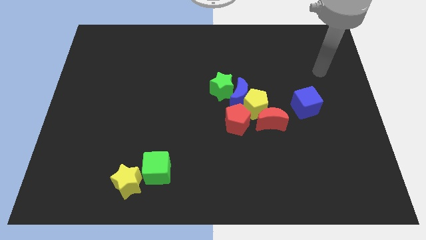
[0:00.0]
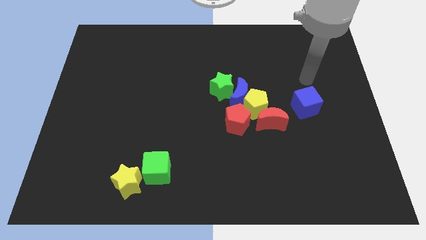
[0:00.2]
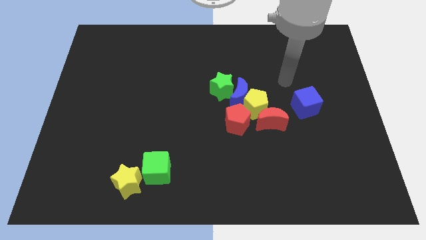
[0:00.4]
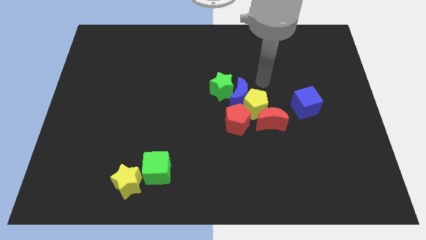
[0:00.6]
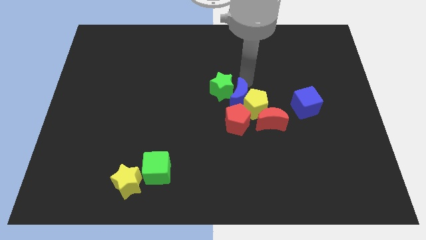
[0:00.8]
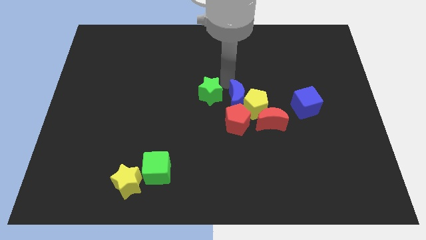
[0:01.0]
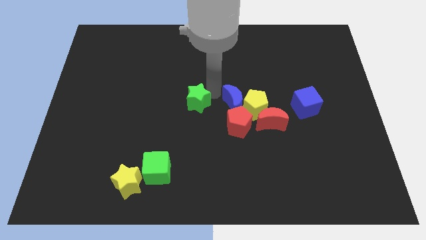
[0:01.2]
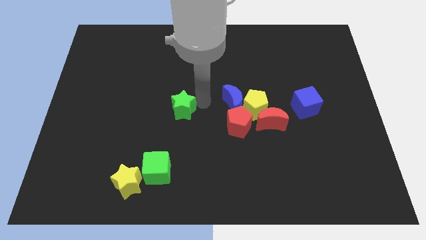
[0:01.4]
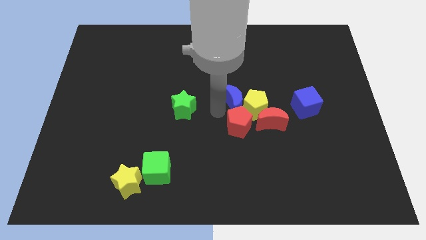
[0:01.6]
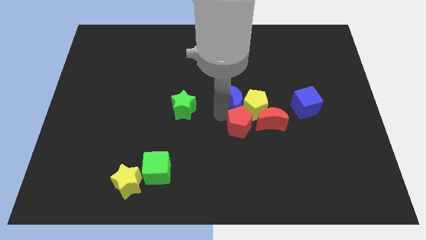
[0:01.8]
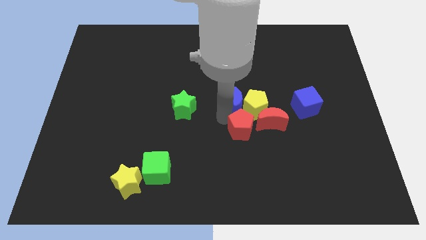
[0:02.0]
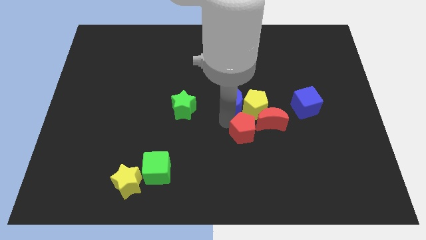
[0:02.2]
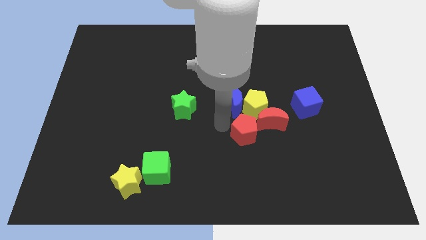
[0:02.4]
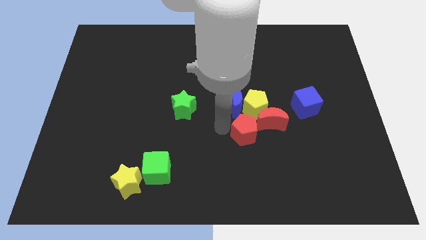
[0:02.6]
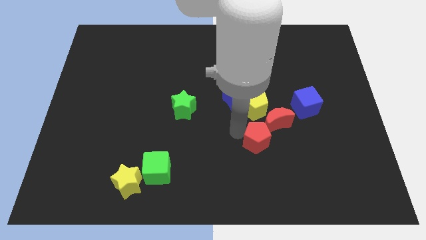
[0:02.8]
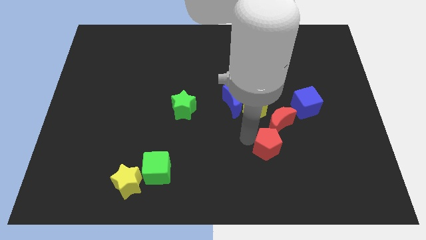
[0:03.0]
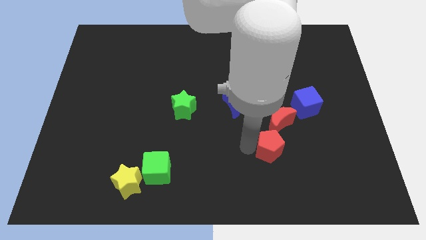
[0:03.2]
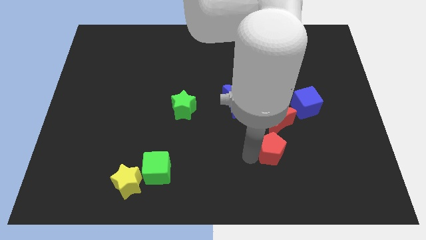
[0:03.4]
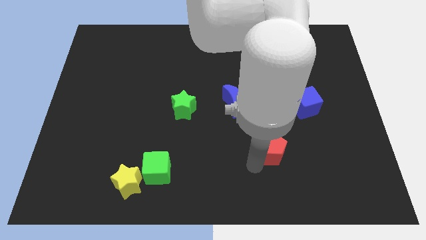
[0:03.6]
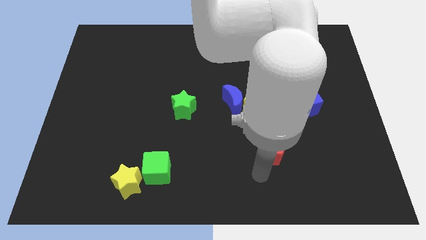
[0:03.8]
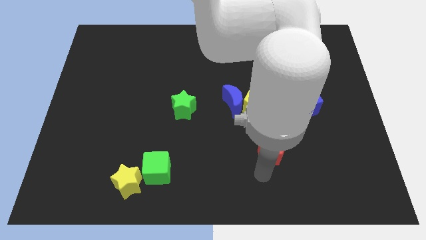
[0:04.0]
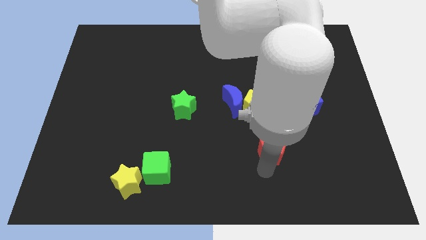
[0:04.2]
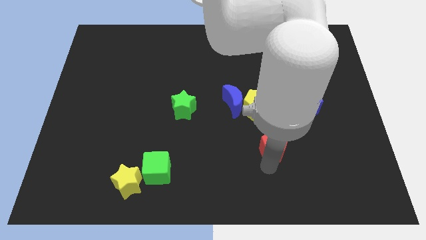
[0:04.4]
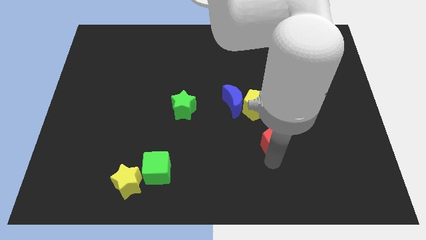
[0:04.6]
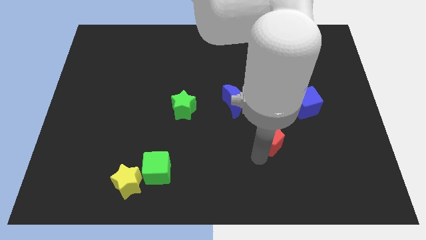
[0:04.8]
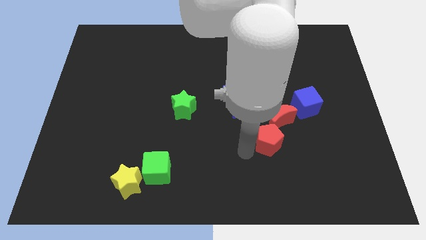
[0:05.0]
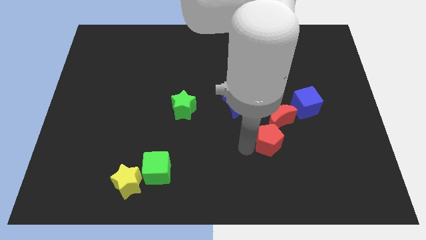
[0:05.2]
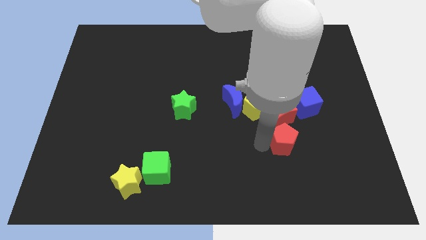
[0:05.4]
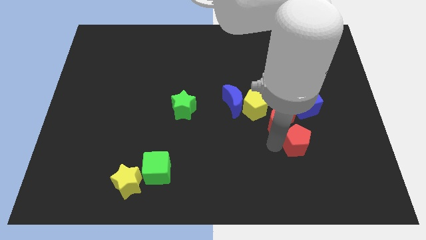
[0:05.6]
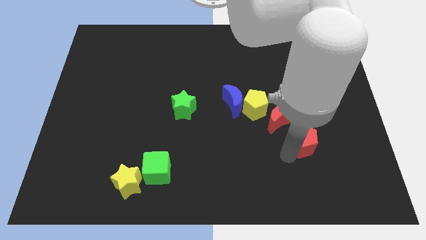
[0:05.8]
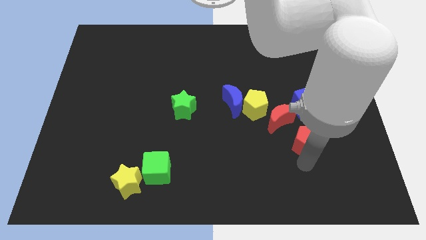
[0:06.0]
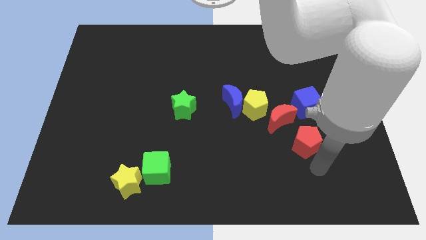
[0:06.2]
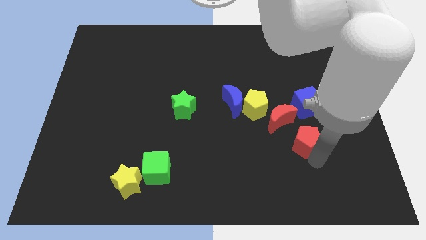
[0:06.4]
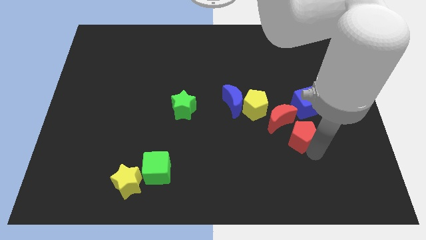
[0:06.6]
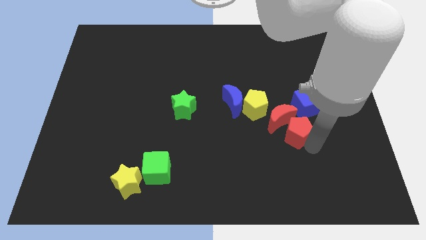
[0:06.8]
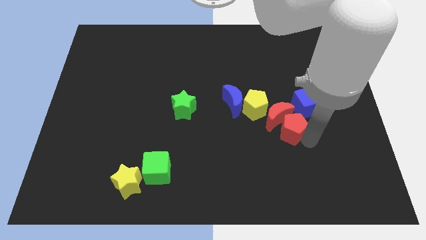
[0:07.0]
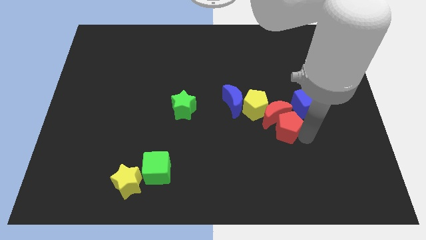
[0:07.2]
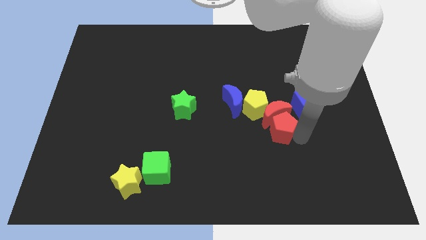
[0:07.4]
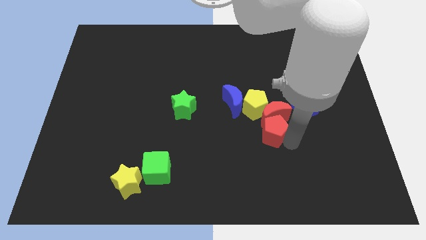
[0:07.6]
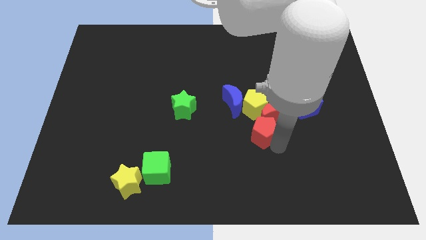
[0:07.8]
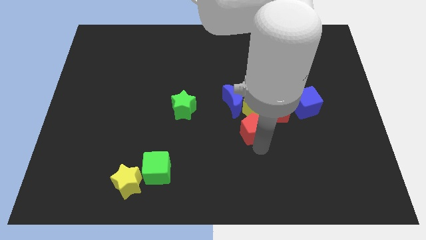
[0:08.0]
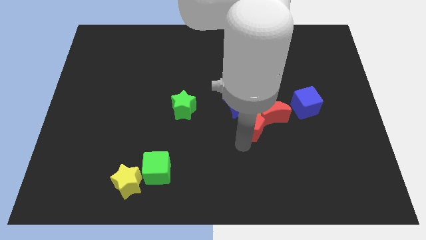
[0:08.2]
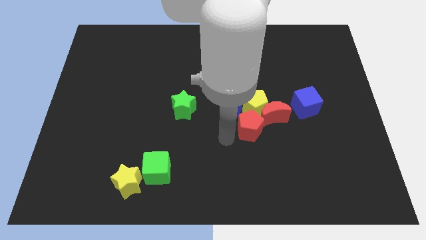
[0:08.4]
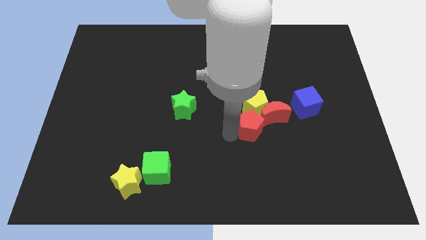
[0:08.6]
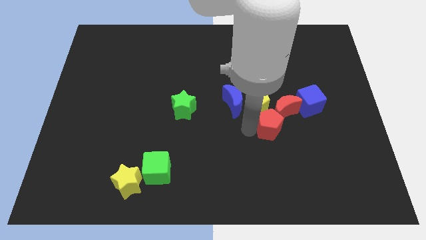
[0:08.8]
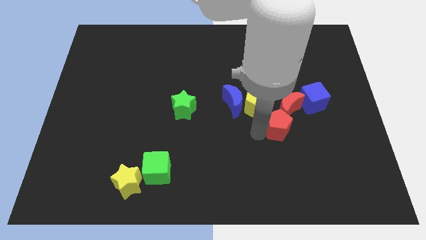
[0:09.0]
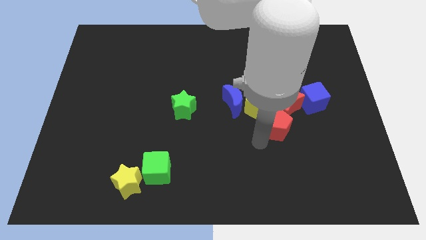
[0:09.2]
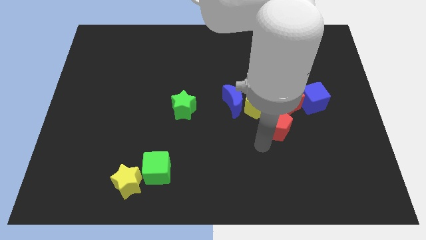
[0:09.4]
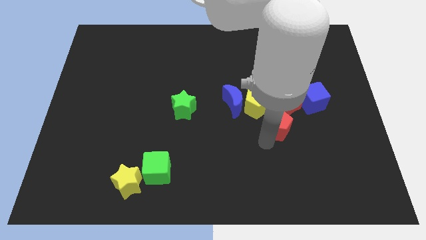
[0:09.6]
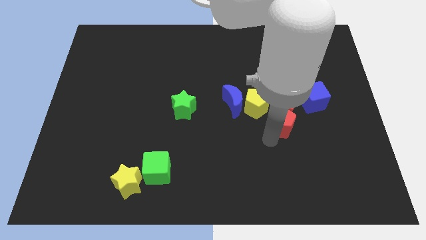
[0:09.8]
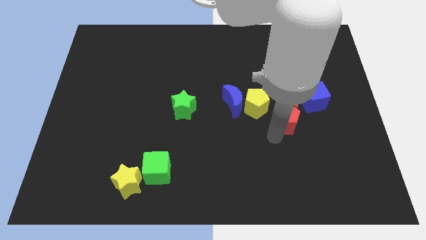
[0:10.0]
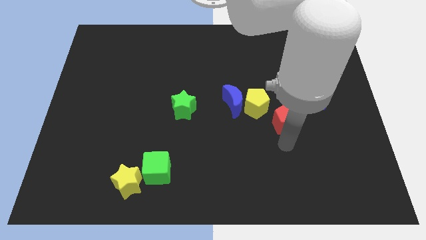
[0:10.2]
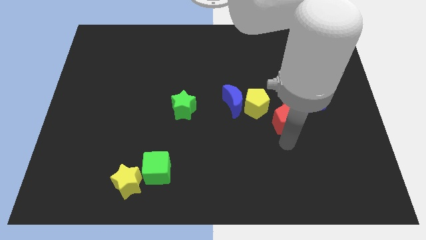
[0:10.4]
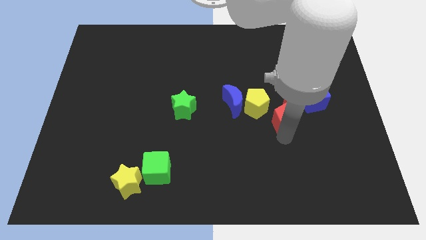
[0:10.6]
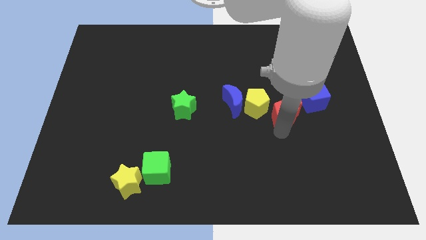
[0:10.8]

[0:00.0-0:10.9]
move the red pentagon somewhat up and right diagonally

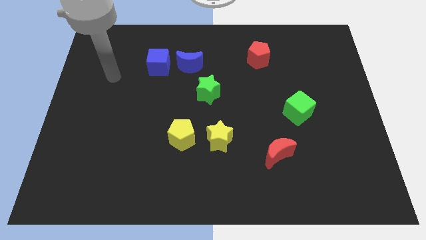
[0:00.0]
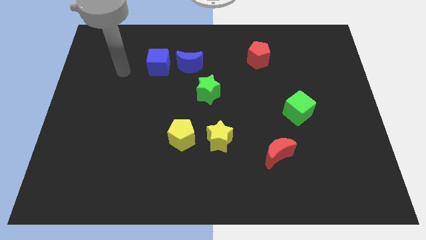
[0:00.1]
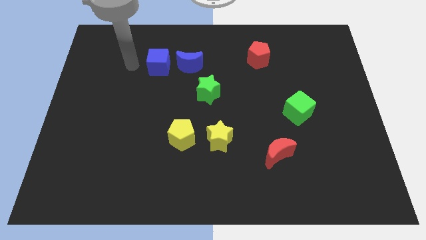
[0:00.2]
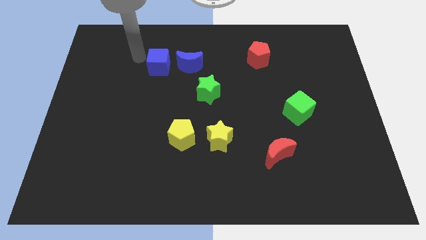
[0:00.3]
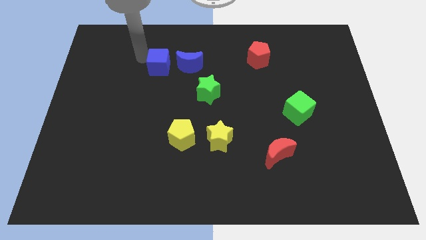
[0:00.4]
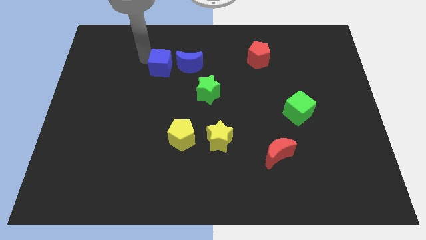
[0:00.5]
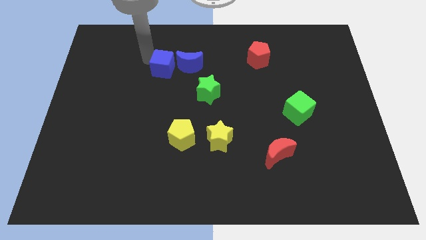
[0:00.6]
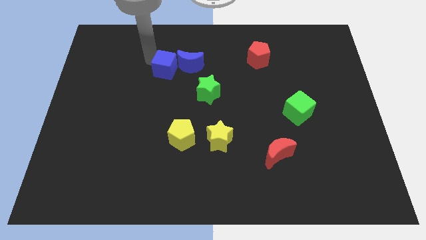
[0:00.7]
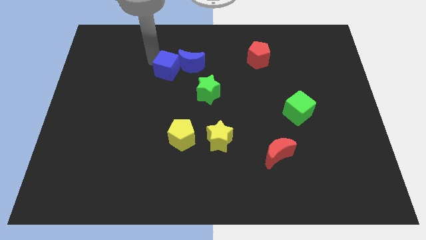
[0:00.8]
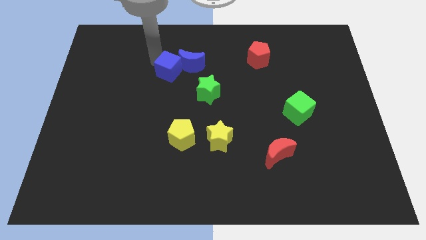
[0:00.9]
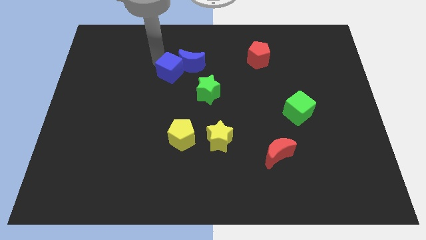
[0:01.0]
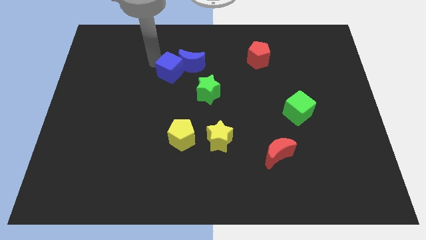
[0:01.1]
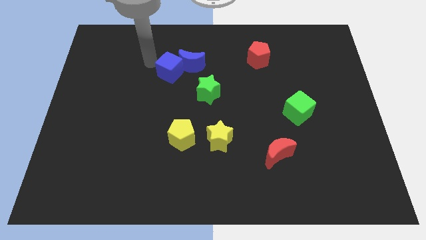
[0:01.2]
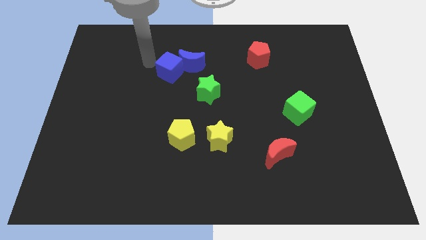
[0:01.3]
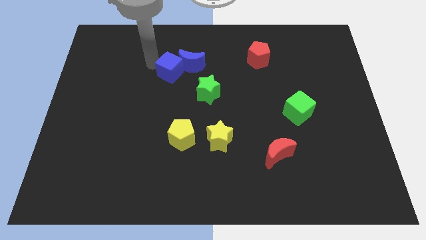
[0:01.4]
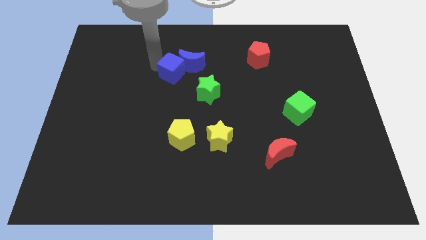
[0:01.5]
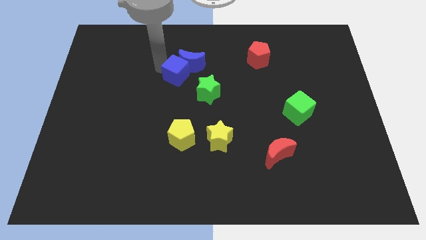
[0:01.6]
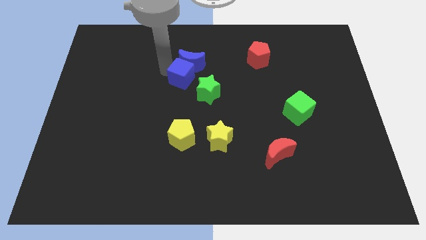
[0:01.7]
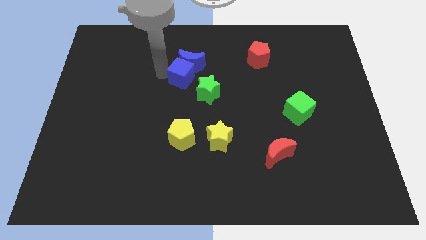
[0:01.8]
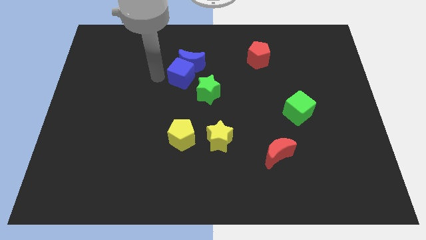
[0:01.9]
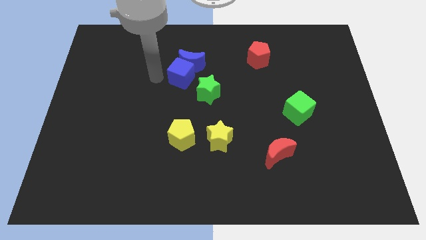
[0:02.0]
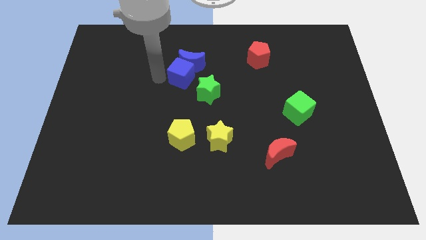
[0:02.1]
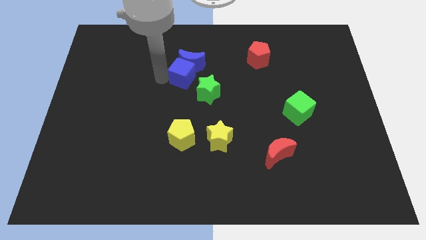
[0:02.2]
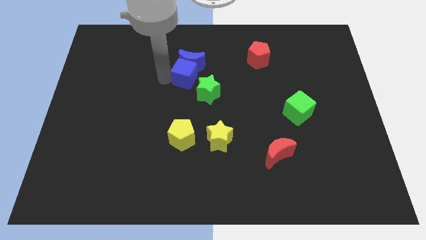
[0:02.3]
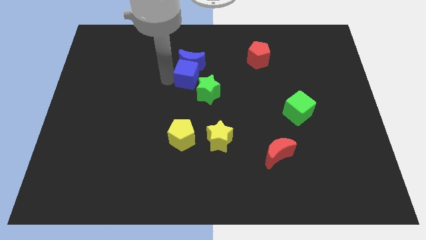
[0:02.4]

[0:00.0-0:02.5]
slightly move the blue cube to the right

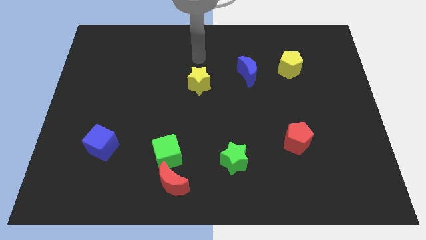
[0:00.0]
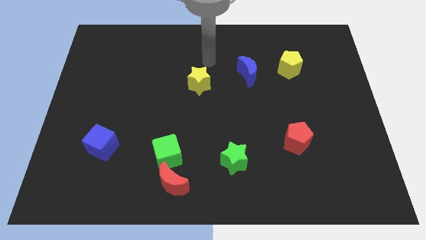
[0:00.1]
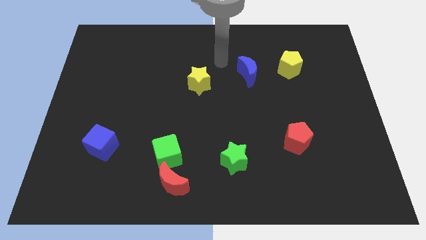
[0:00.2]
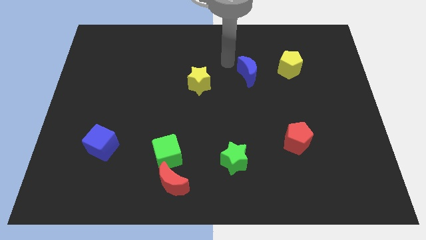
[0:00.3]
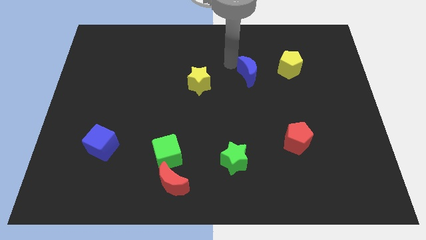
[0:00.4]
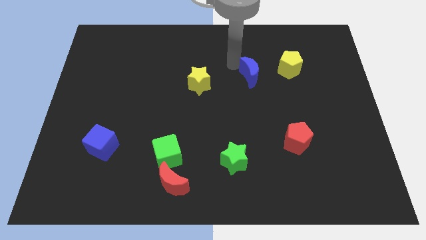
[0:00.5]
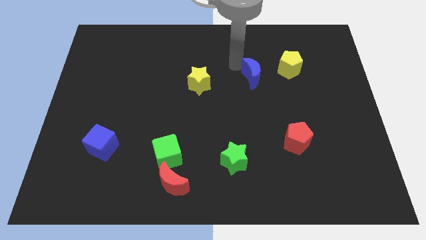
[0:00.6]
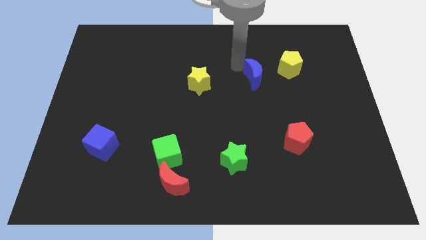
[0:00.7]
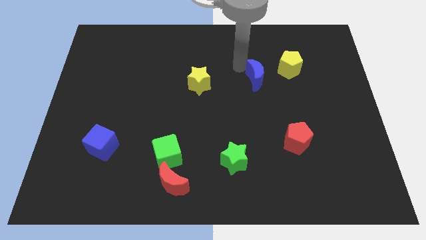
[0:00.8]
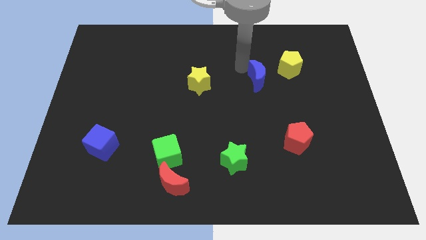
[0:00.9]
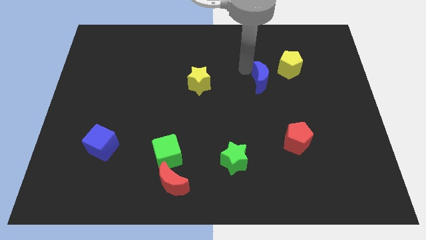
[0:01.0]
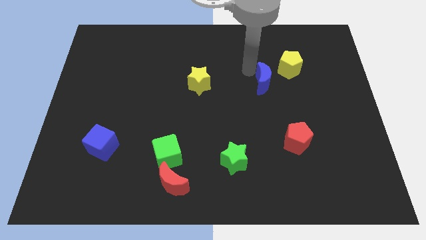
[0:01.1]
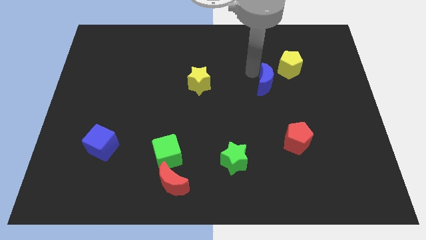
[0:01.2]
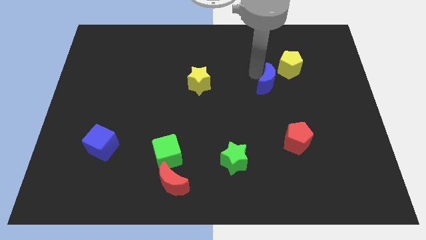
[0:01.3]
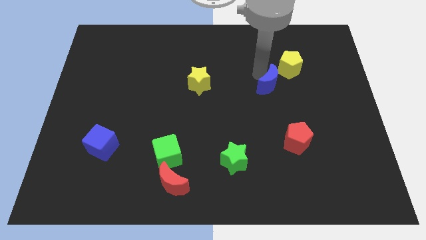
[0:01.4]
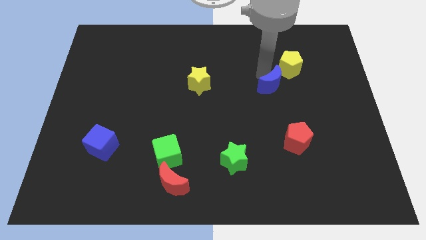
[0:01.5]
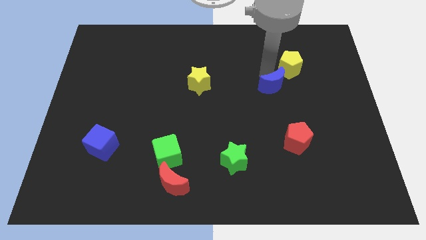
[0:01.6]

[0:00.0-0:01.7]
slightly slide the blue moon diagonally down and to the right
